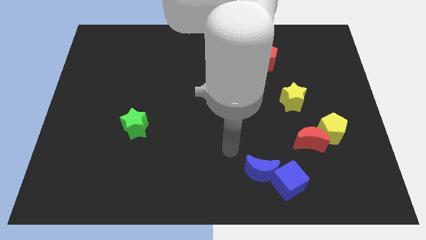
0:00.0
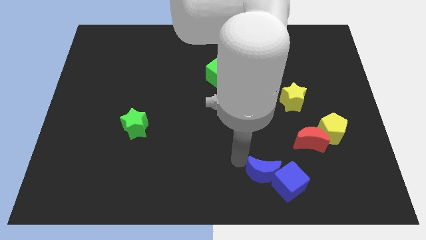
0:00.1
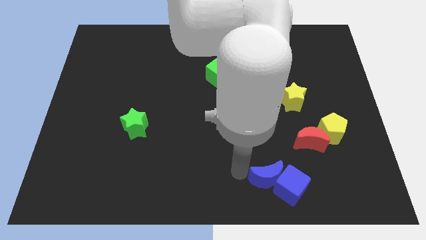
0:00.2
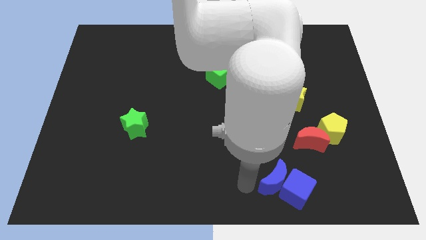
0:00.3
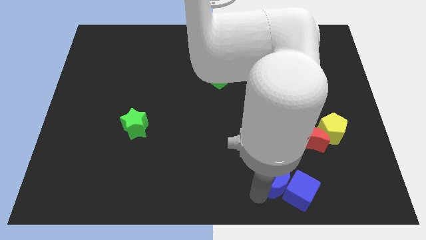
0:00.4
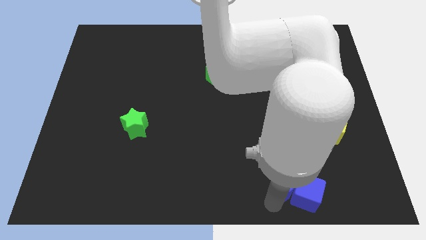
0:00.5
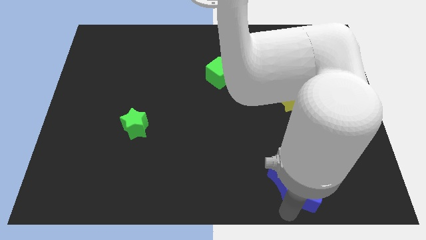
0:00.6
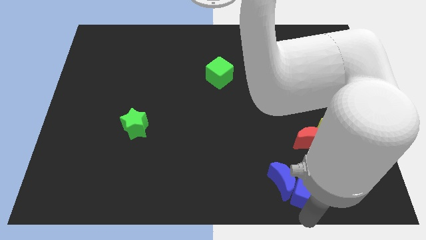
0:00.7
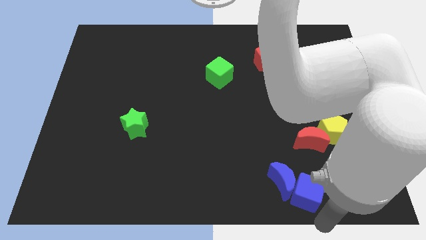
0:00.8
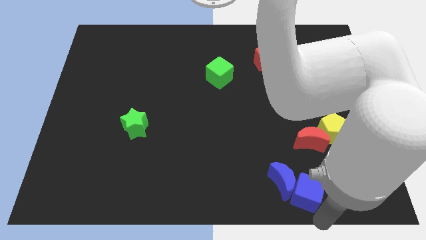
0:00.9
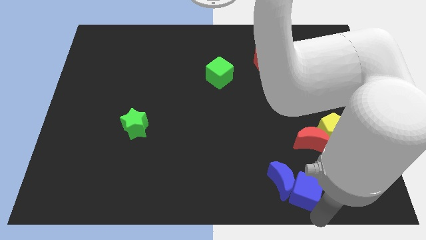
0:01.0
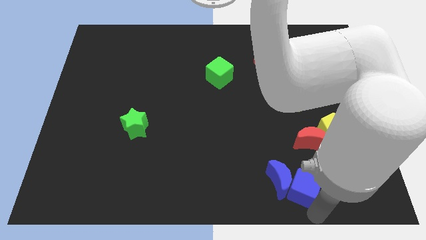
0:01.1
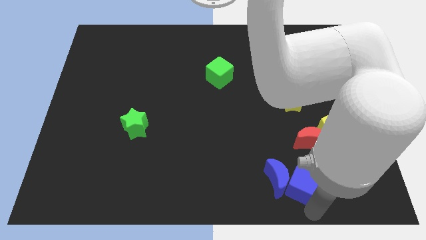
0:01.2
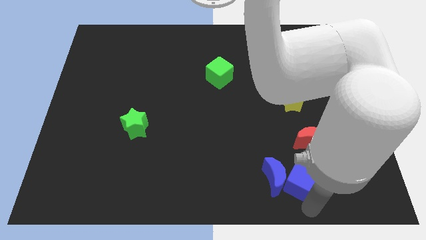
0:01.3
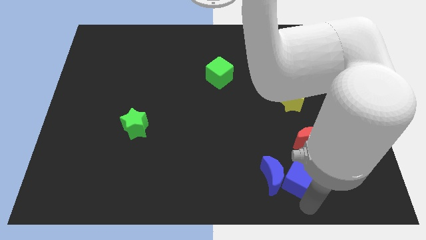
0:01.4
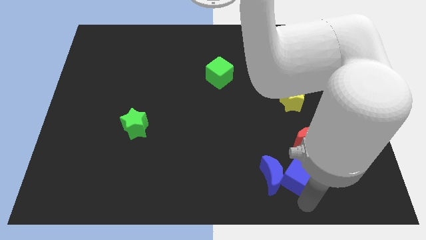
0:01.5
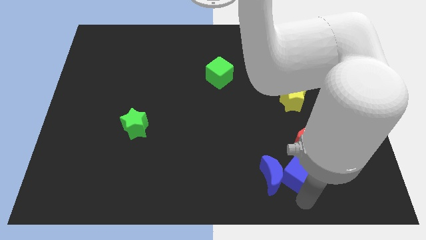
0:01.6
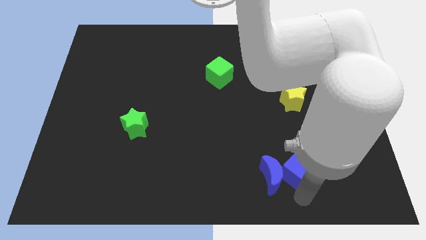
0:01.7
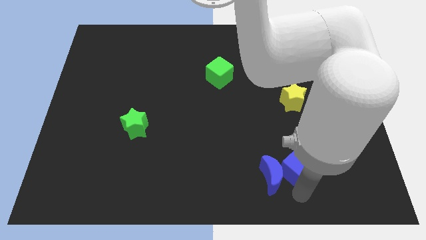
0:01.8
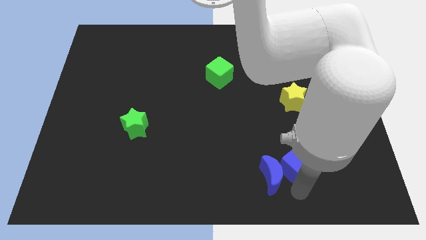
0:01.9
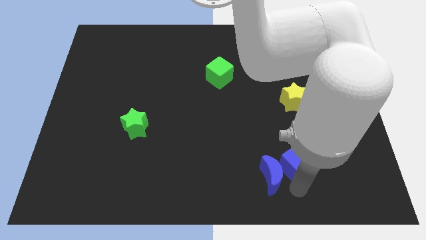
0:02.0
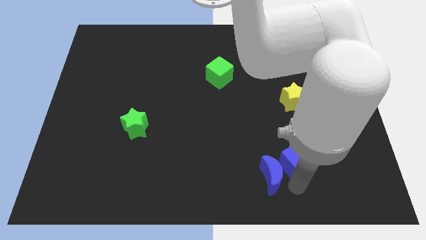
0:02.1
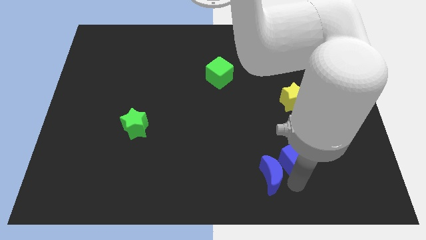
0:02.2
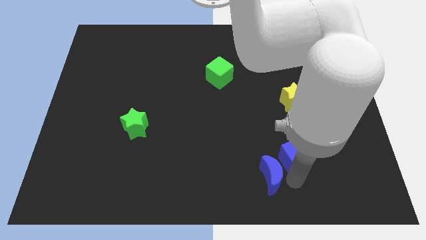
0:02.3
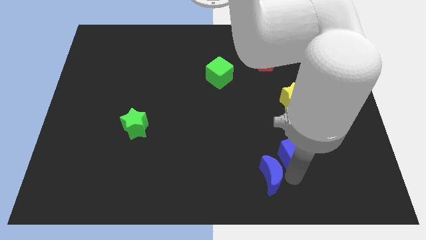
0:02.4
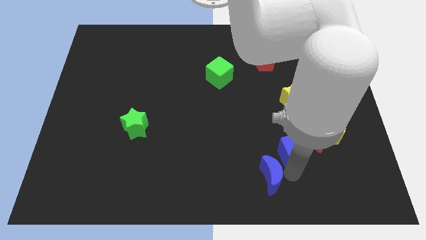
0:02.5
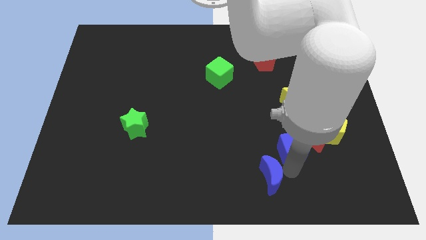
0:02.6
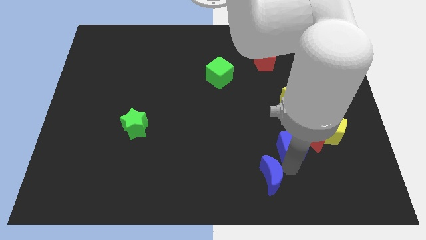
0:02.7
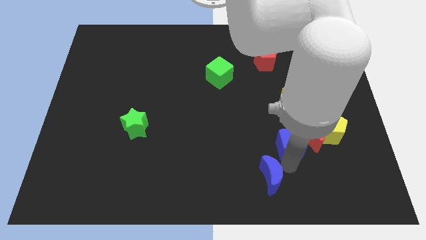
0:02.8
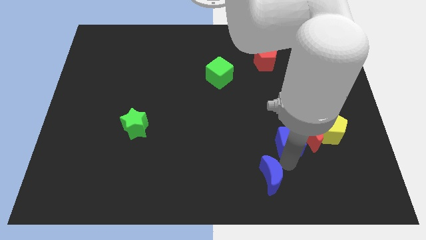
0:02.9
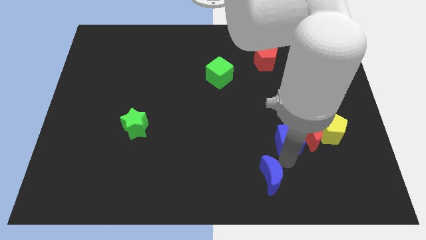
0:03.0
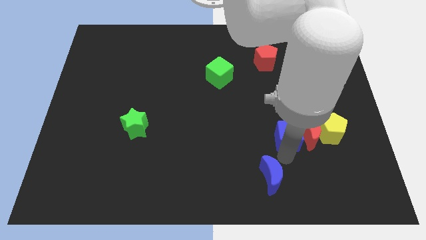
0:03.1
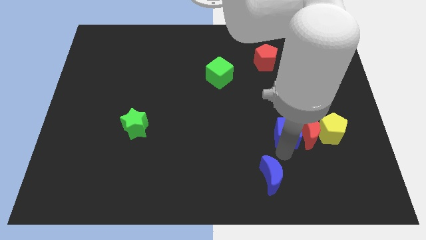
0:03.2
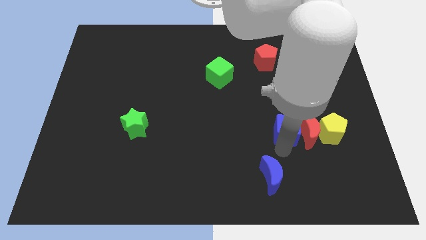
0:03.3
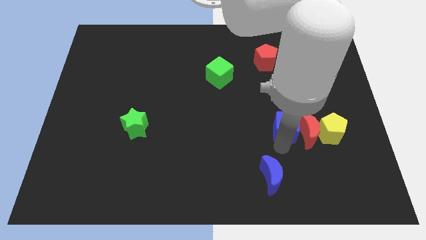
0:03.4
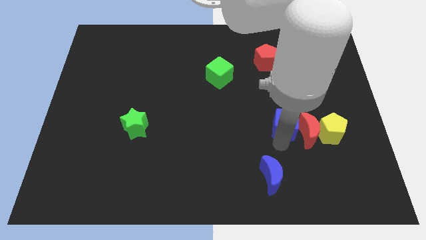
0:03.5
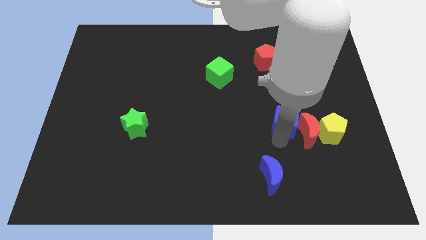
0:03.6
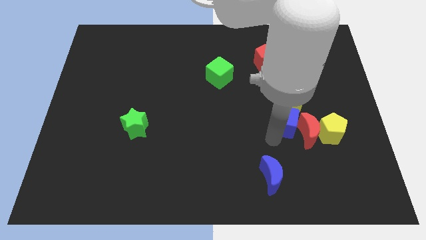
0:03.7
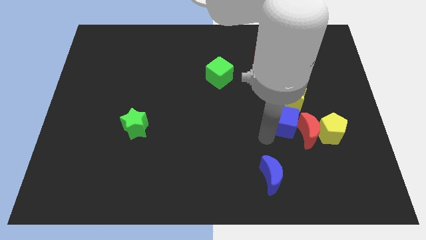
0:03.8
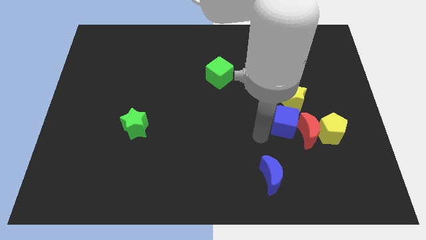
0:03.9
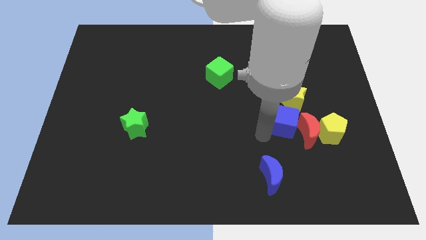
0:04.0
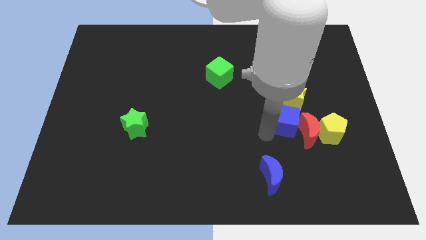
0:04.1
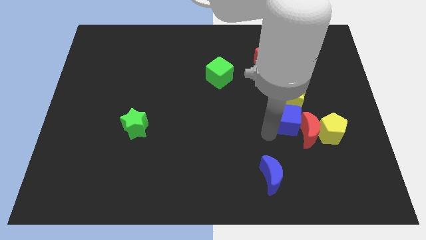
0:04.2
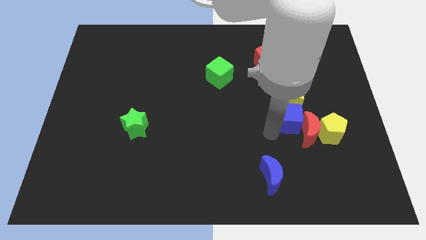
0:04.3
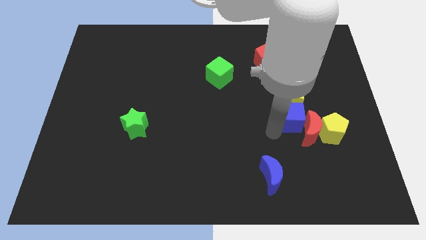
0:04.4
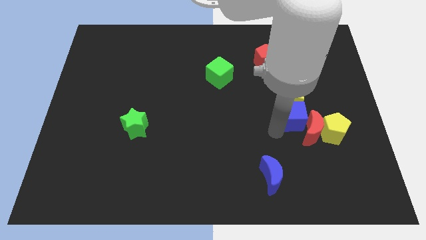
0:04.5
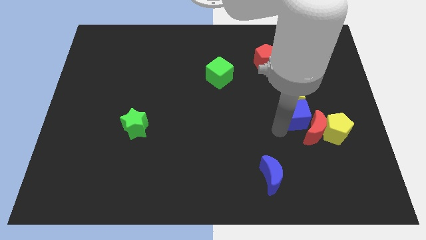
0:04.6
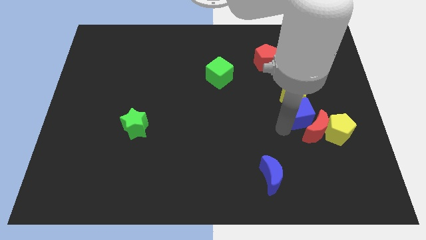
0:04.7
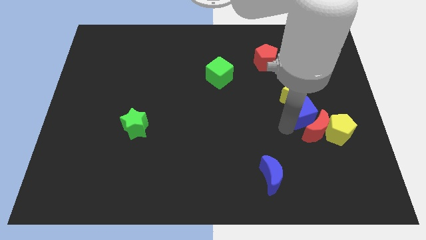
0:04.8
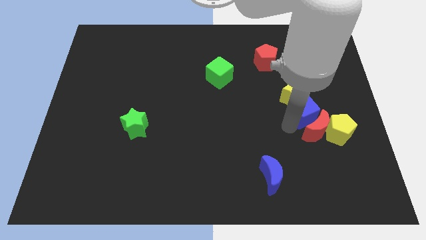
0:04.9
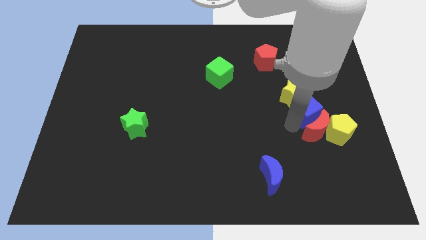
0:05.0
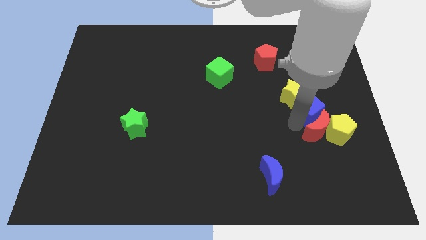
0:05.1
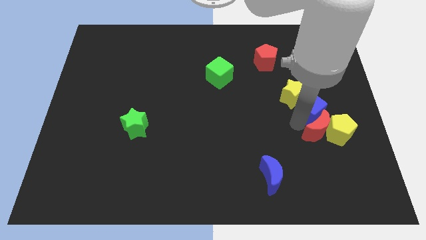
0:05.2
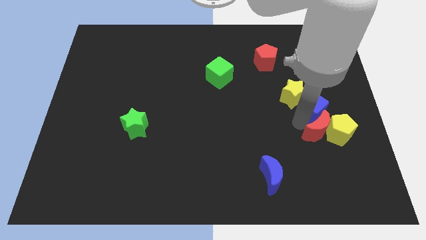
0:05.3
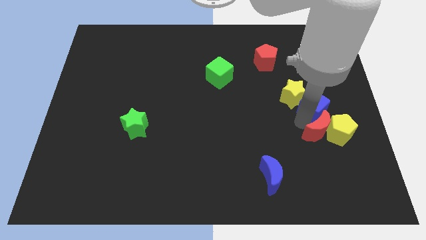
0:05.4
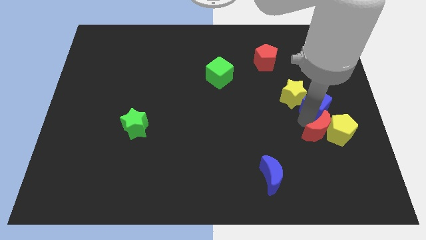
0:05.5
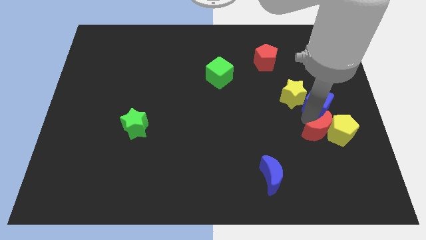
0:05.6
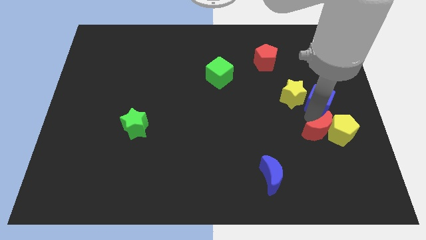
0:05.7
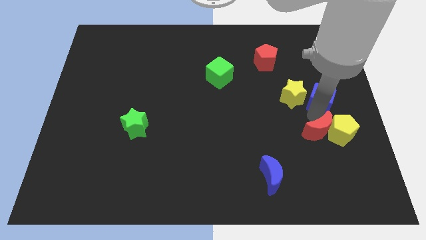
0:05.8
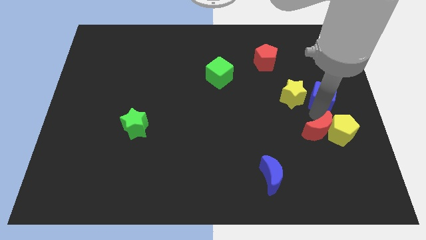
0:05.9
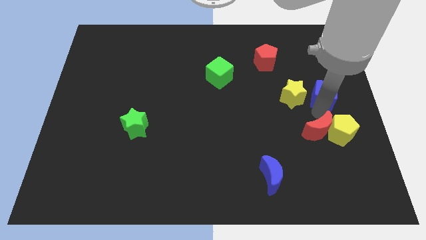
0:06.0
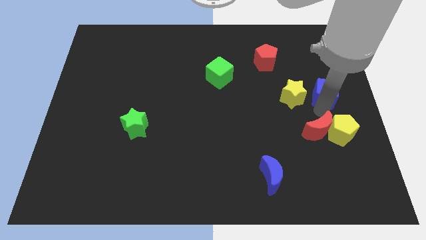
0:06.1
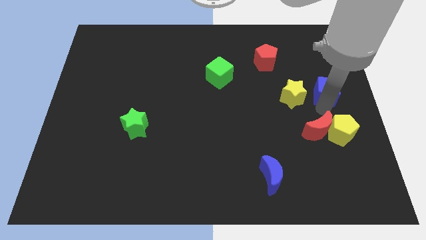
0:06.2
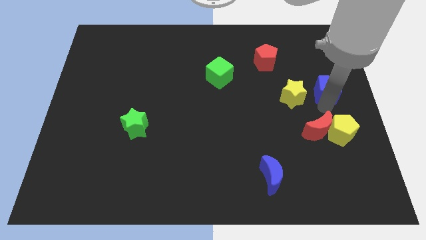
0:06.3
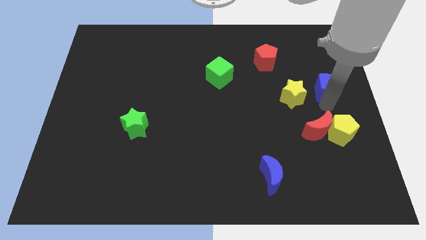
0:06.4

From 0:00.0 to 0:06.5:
move the blue cube diagonally up and to the right of the yellow star

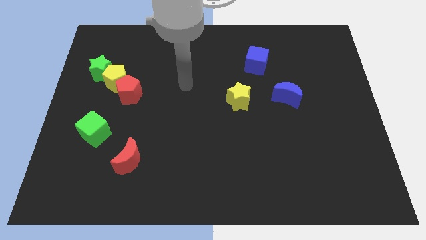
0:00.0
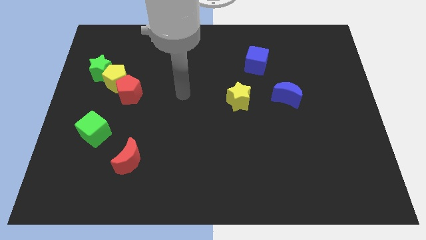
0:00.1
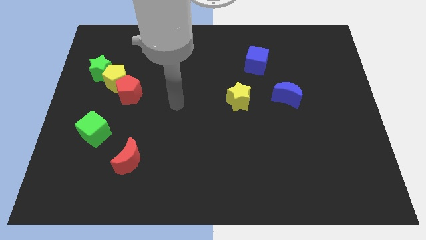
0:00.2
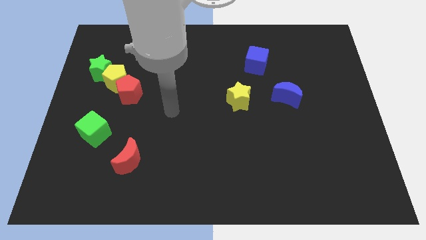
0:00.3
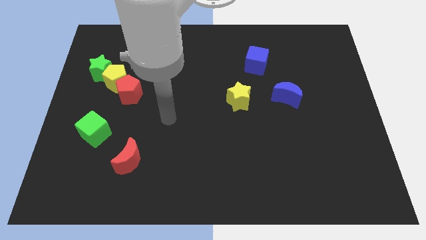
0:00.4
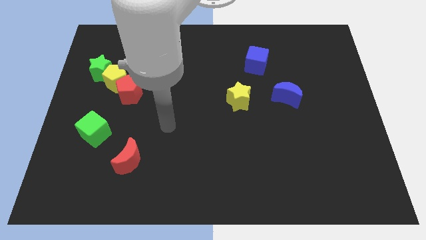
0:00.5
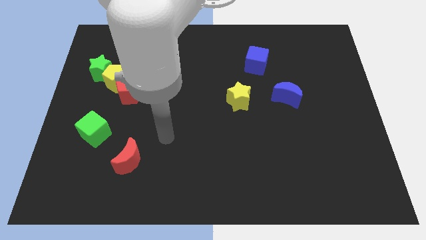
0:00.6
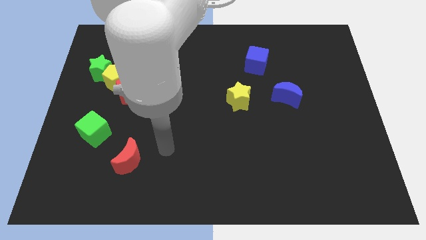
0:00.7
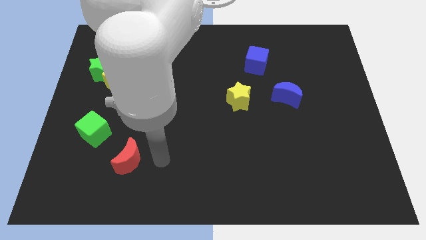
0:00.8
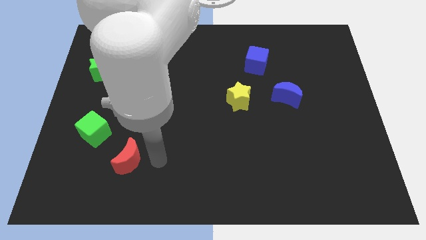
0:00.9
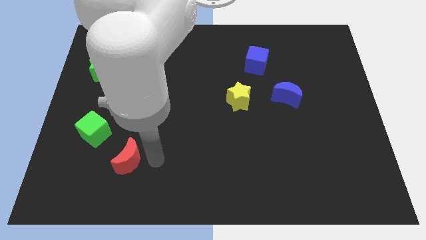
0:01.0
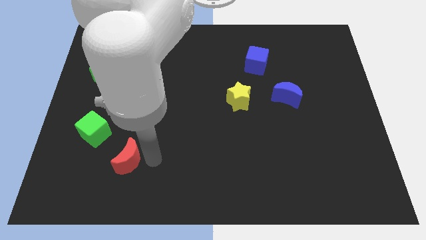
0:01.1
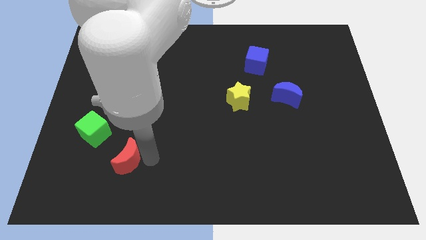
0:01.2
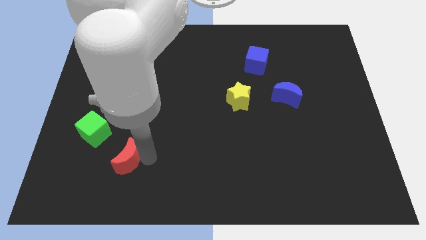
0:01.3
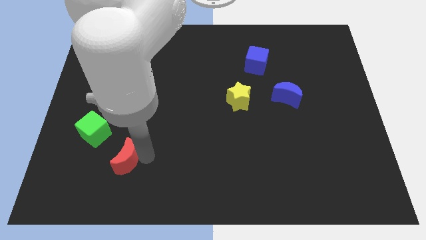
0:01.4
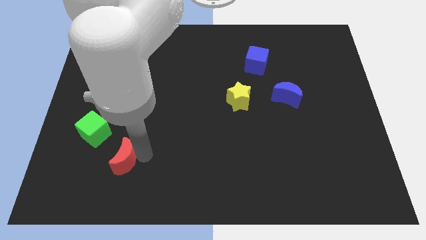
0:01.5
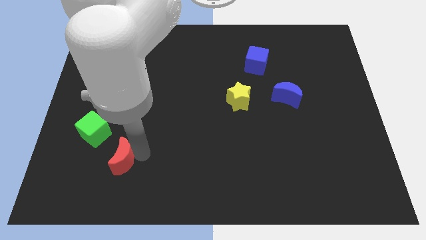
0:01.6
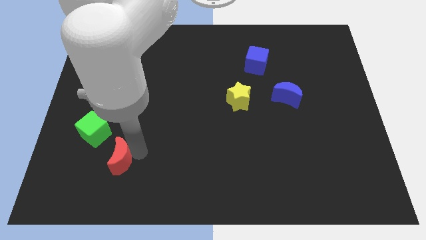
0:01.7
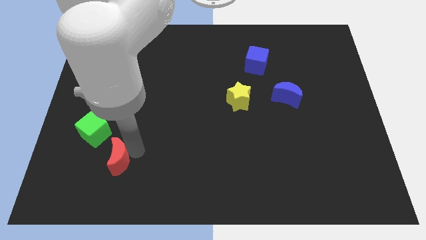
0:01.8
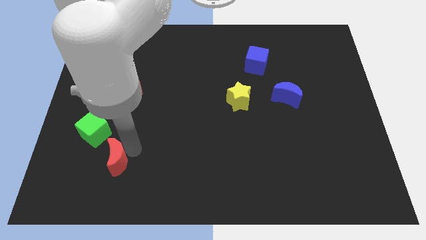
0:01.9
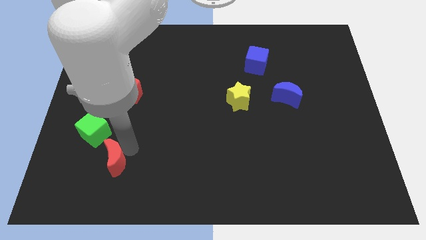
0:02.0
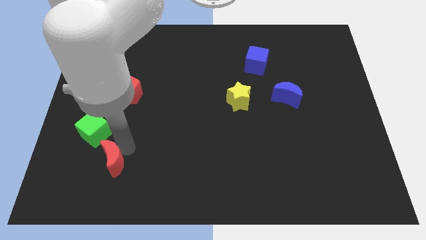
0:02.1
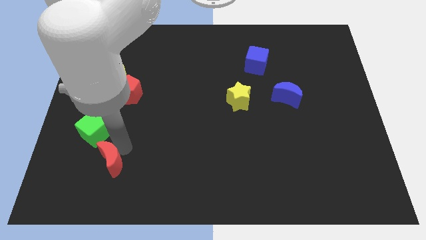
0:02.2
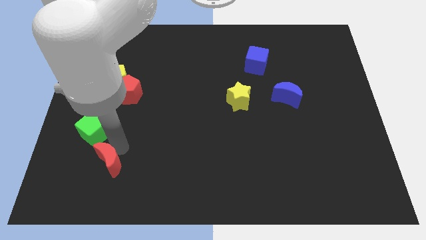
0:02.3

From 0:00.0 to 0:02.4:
put the red moon to the bottom of the green cube
